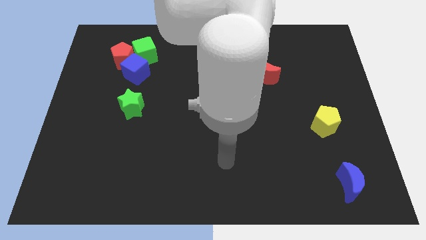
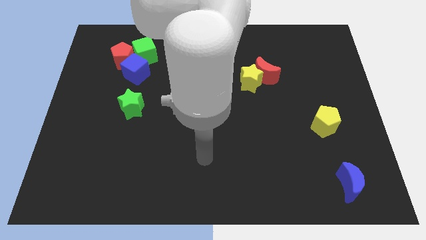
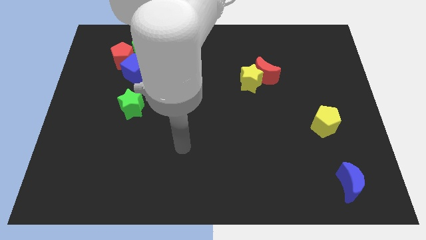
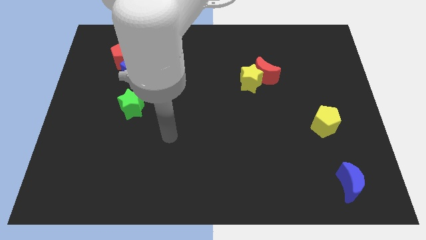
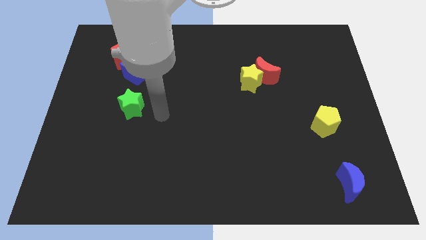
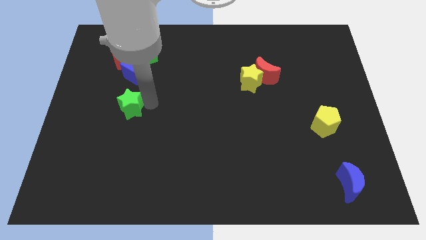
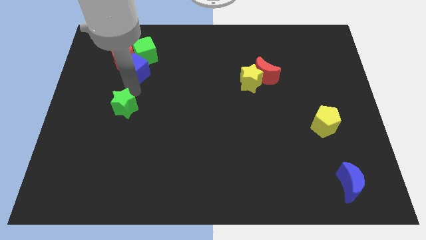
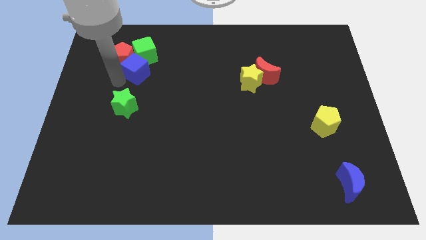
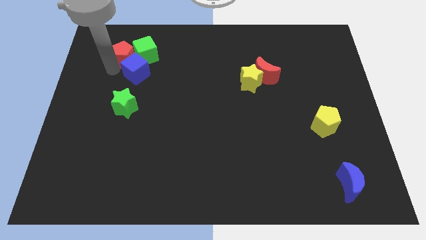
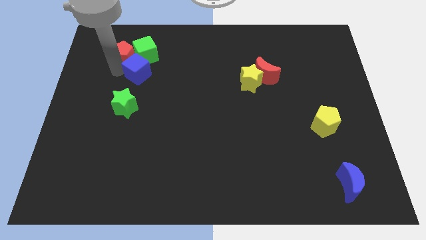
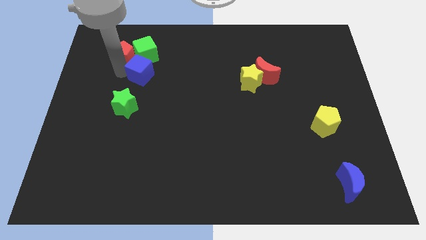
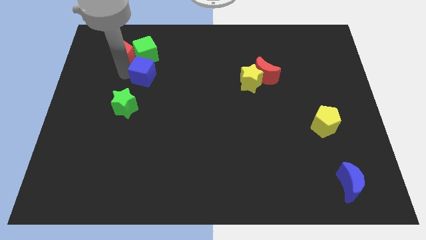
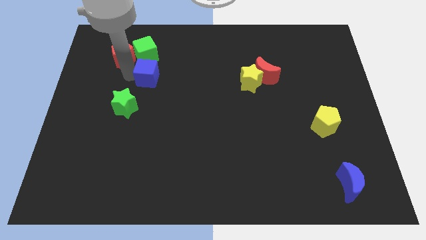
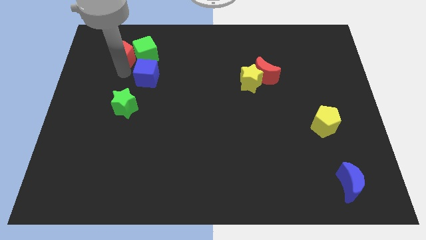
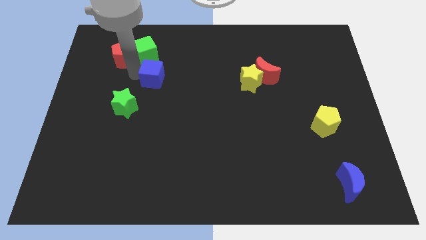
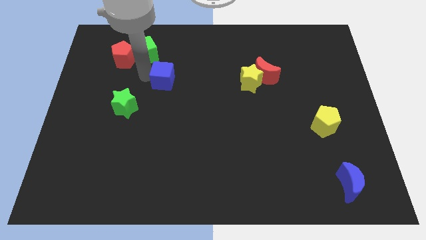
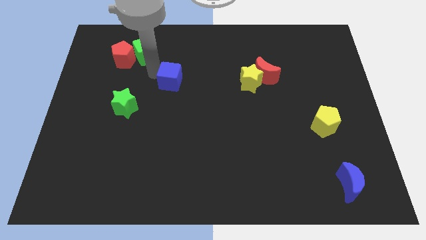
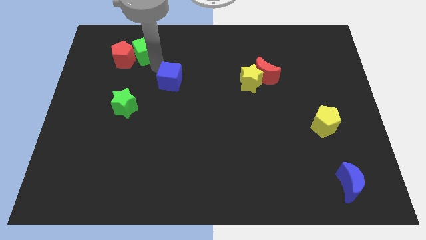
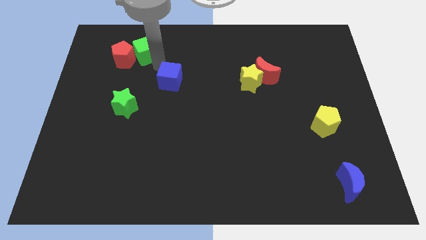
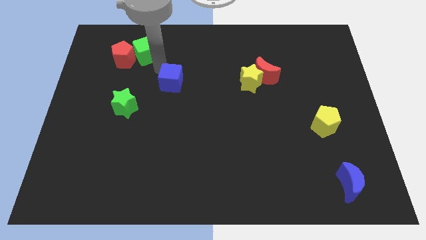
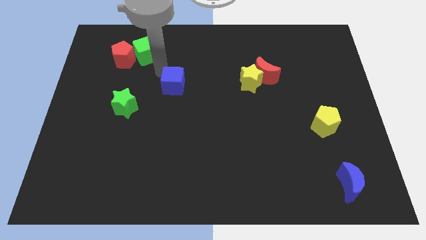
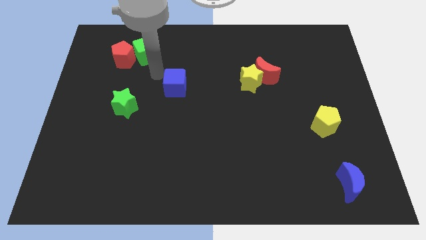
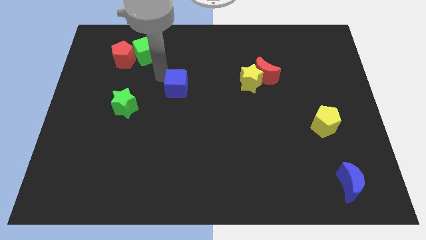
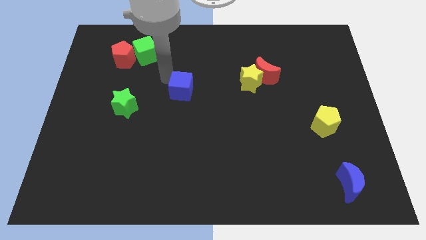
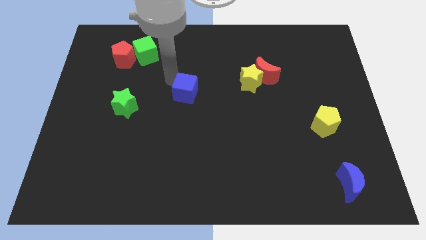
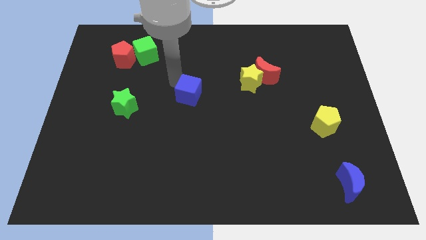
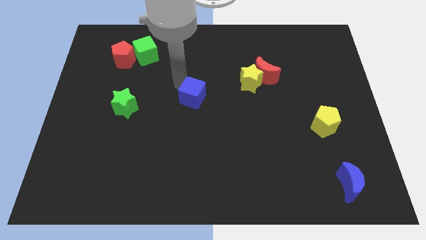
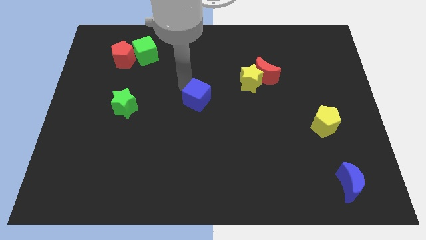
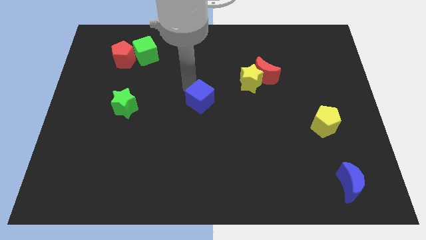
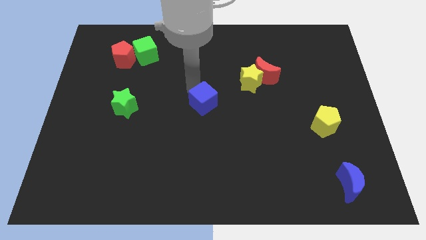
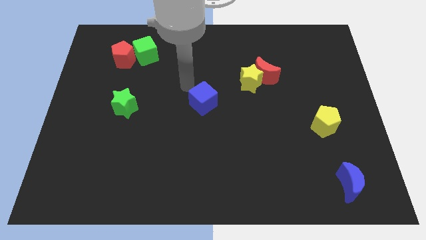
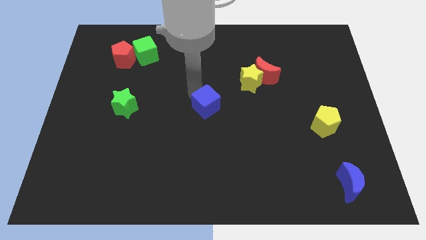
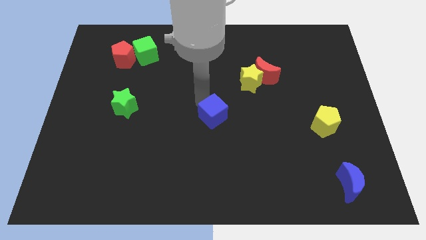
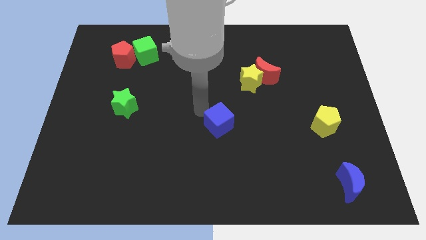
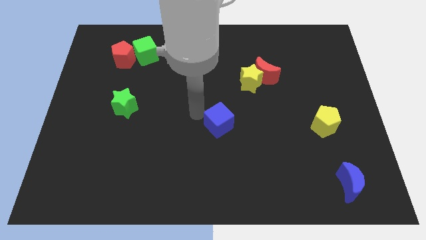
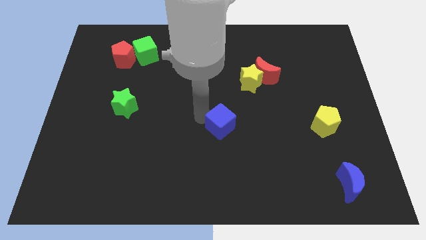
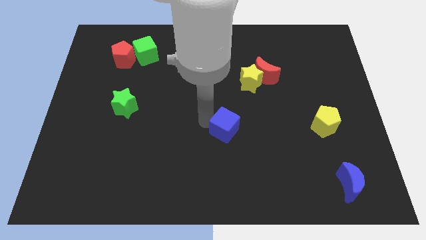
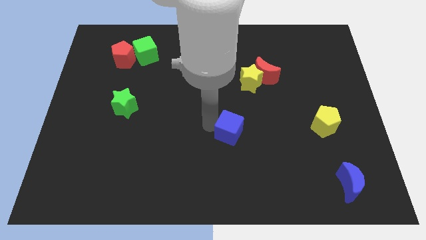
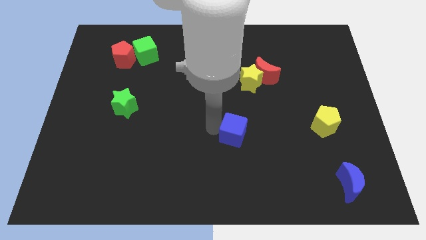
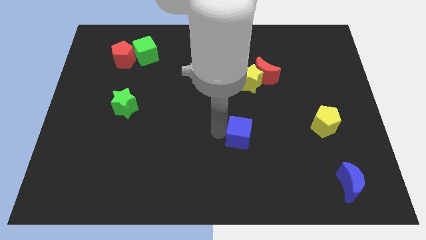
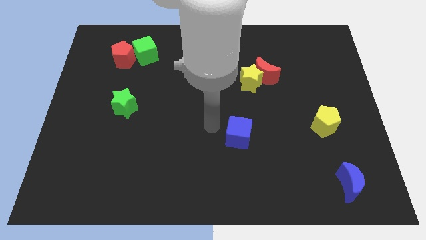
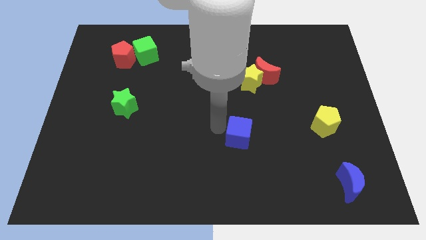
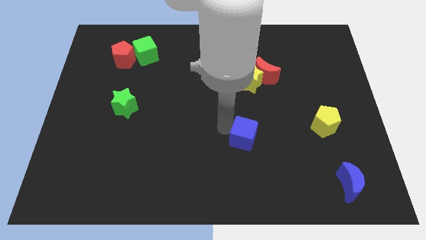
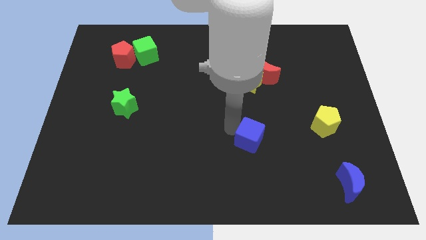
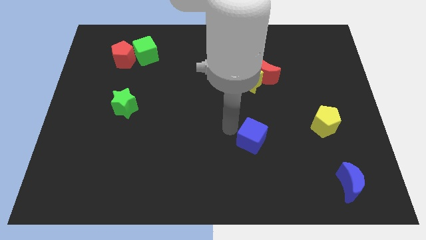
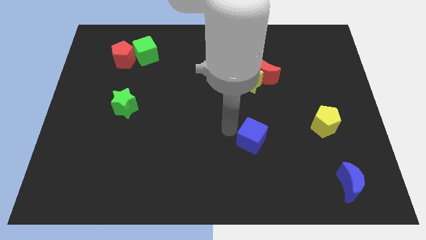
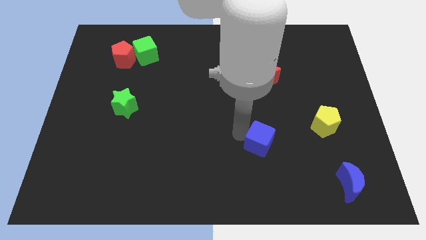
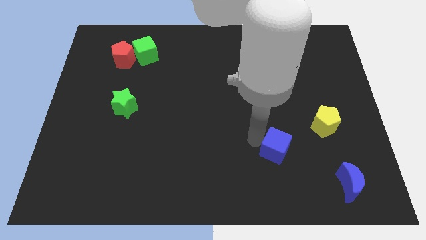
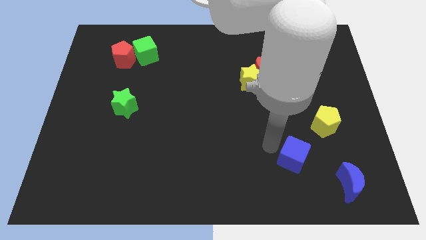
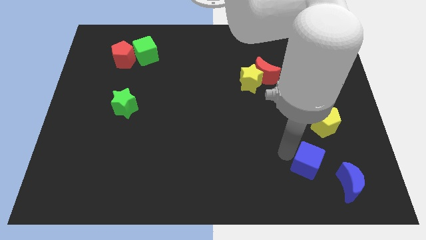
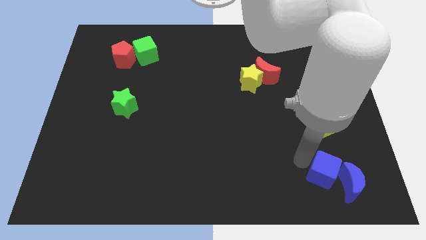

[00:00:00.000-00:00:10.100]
move the blue cube towards the blue moon

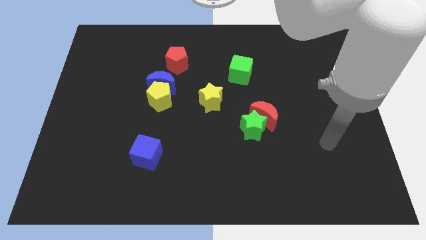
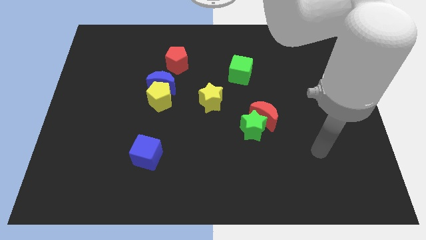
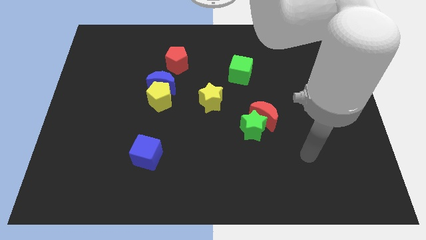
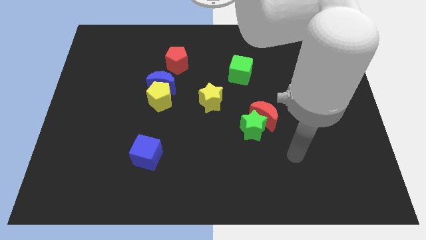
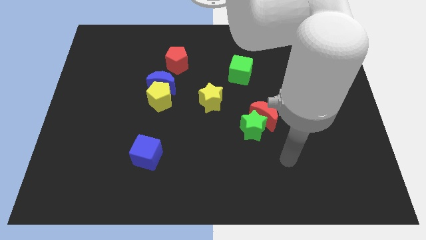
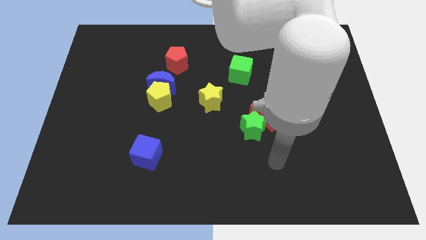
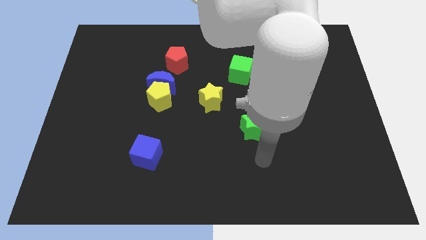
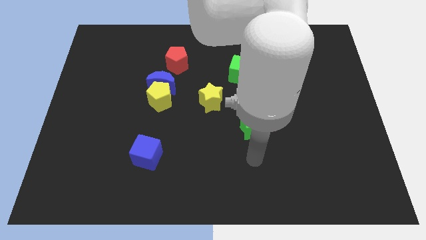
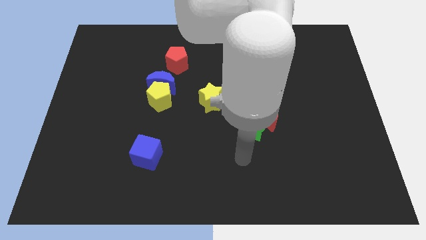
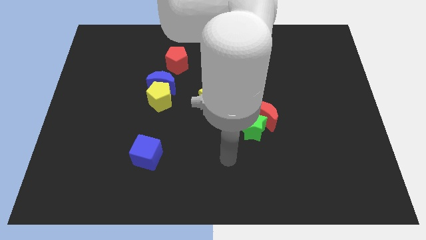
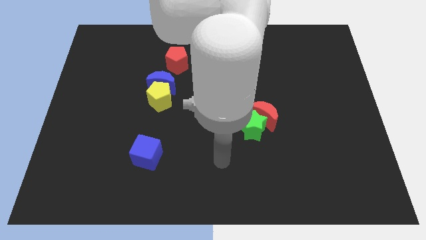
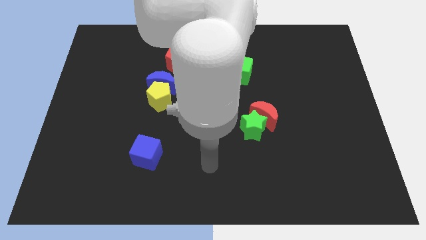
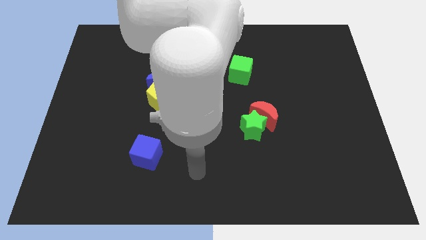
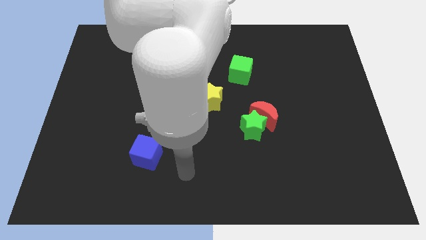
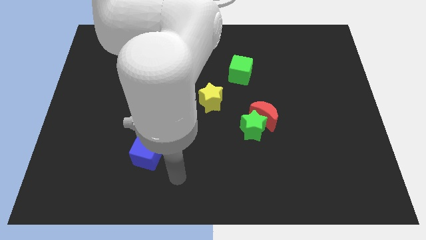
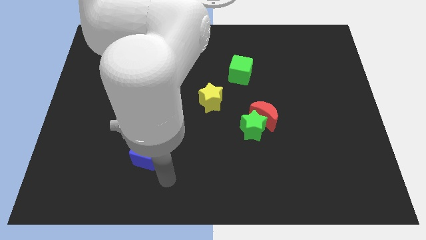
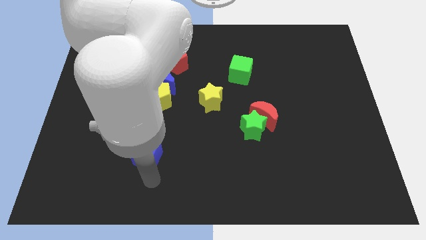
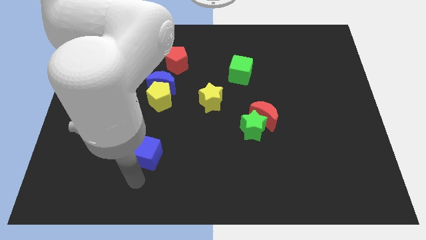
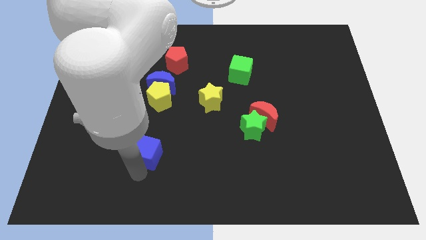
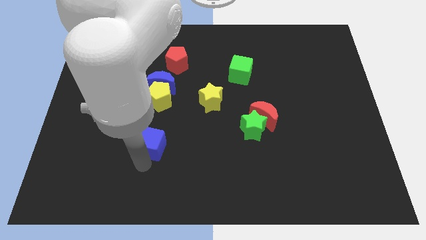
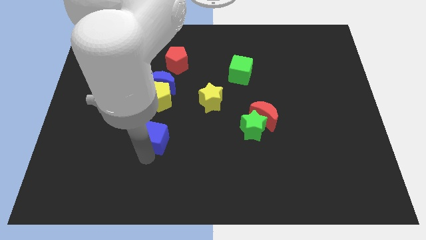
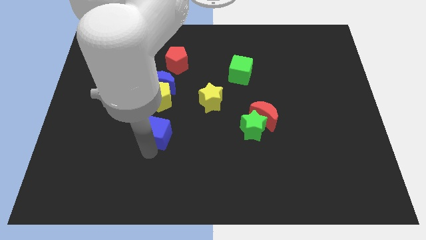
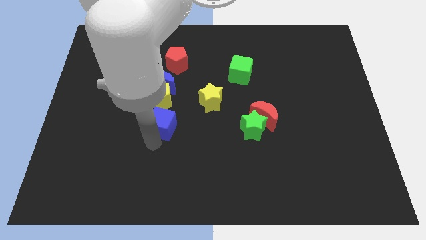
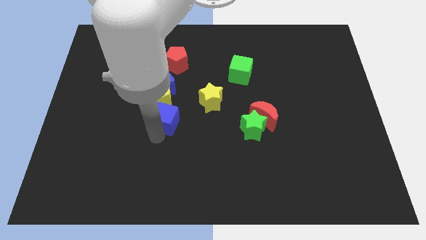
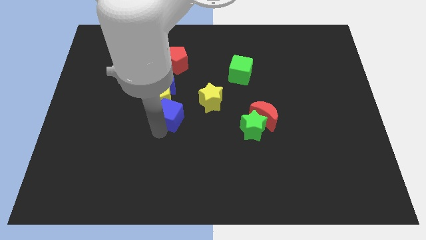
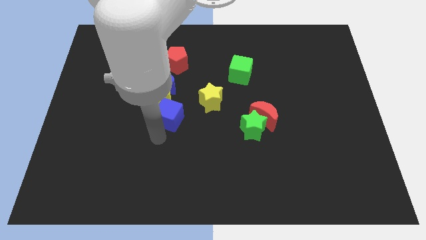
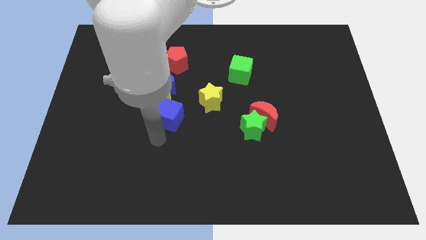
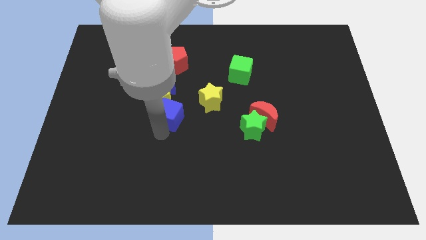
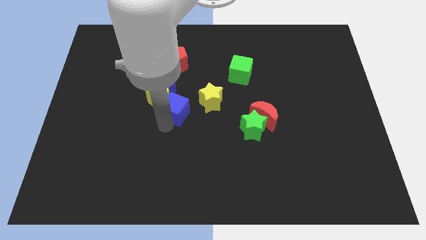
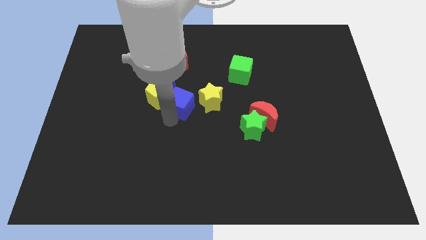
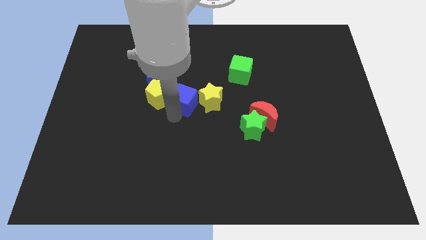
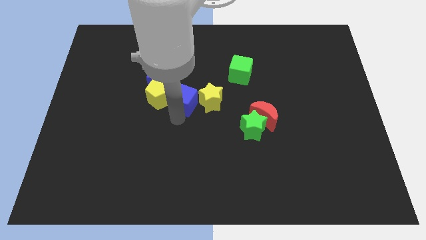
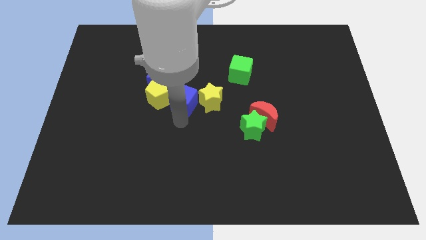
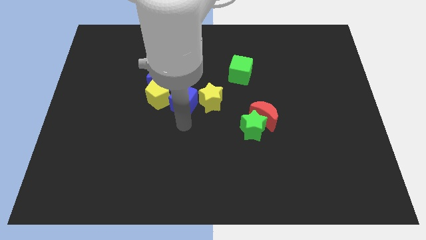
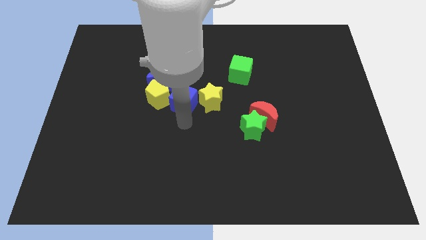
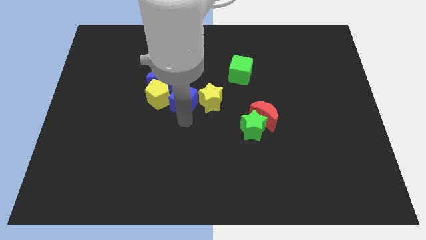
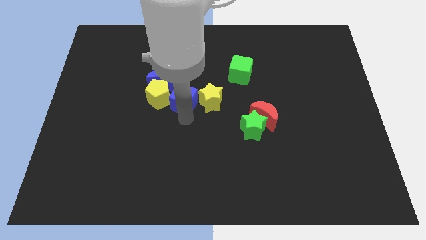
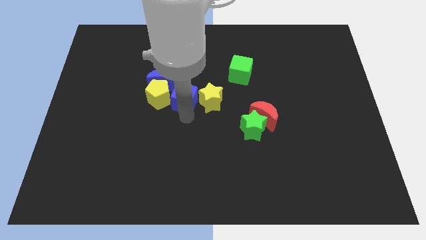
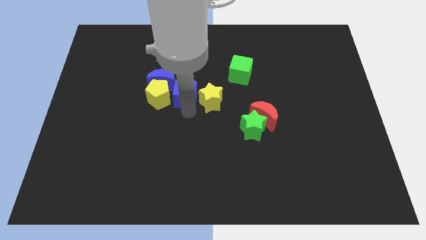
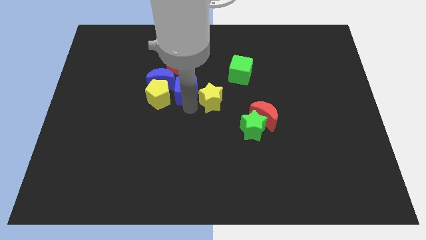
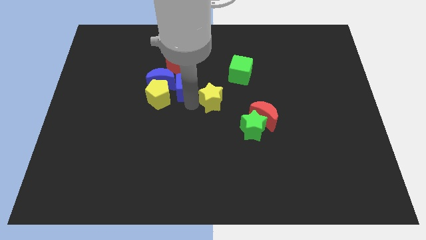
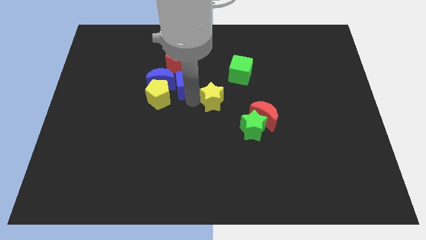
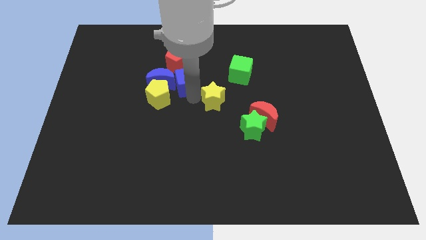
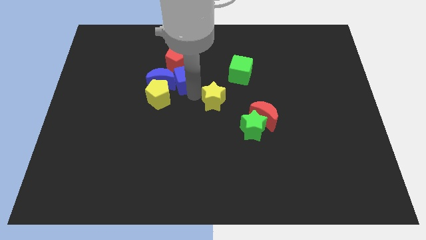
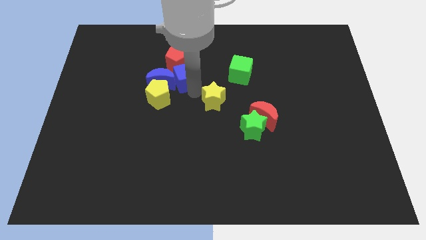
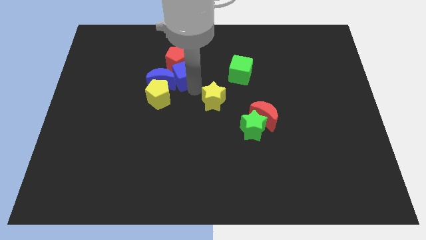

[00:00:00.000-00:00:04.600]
slide the blue cube close to the red pentagon
